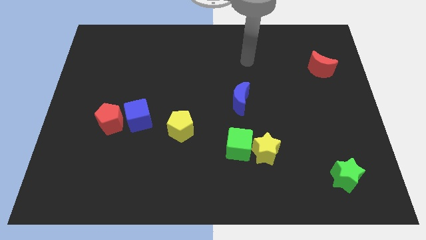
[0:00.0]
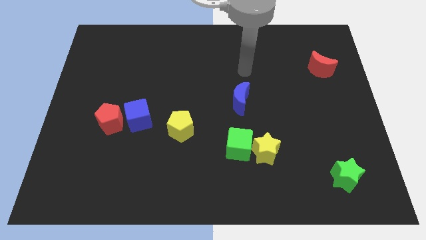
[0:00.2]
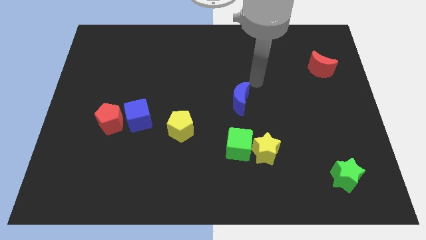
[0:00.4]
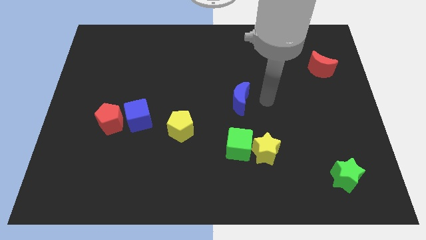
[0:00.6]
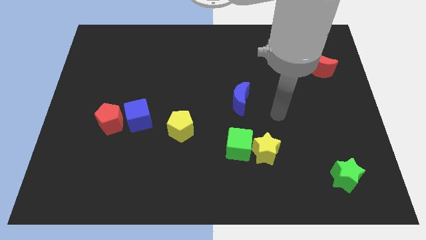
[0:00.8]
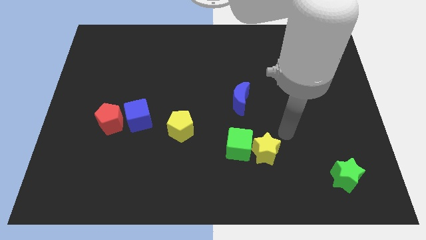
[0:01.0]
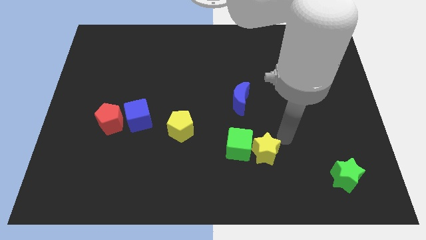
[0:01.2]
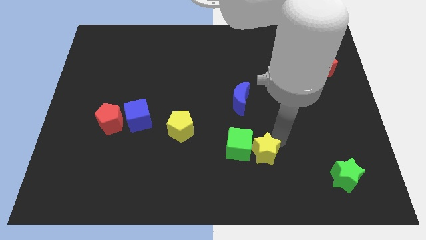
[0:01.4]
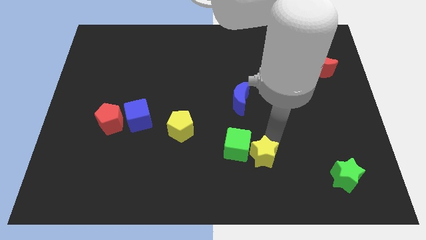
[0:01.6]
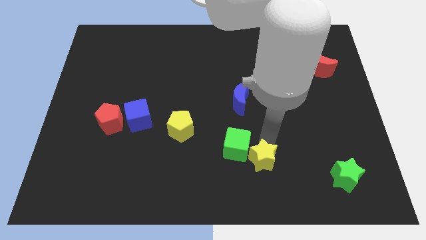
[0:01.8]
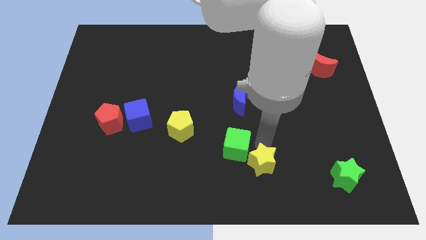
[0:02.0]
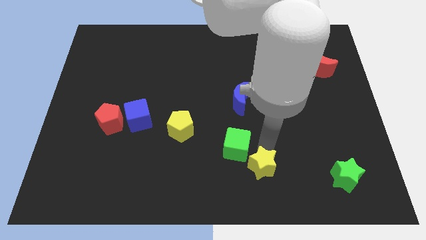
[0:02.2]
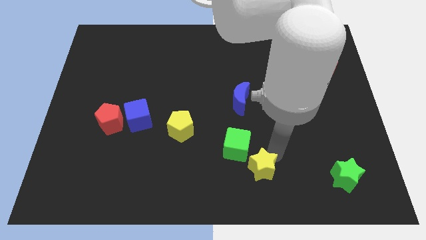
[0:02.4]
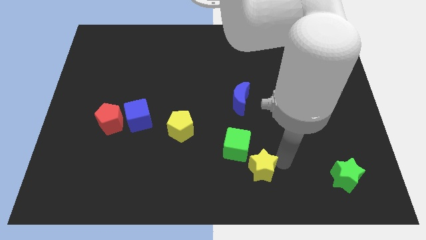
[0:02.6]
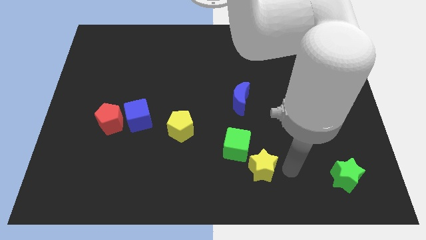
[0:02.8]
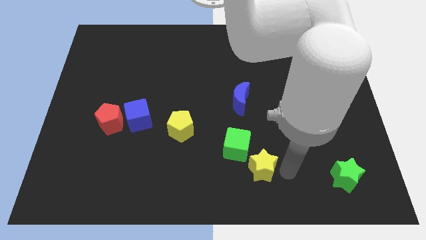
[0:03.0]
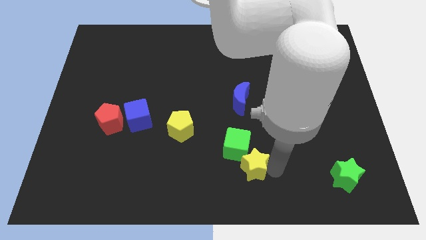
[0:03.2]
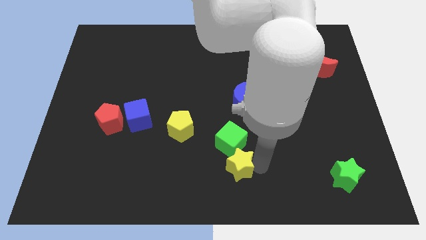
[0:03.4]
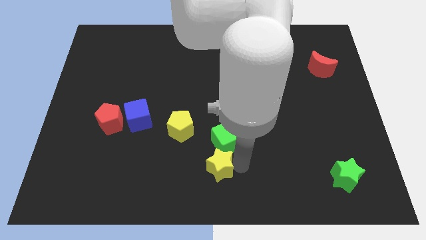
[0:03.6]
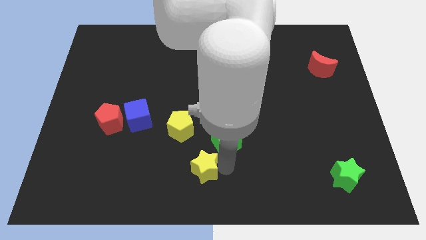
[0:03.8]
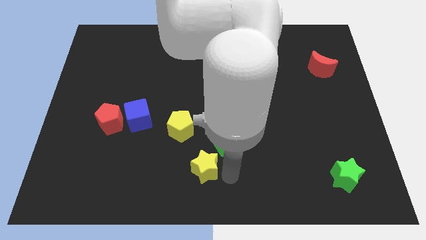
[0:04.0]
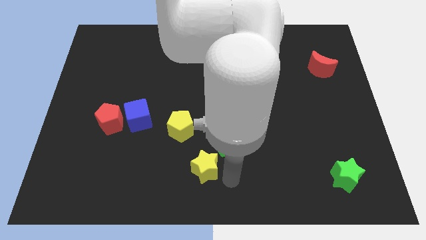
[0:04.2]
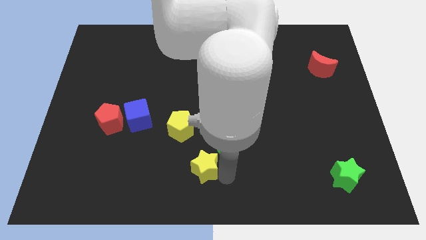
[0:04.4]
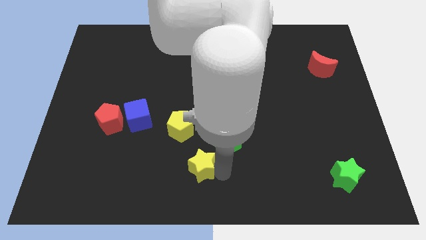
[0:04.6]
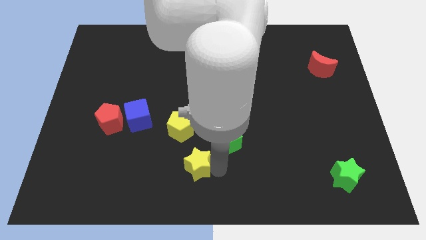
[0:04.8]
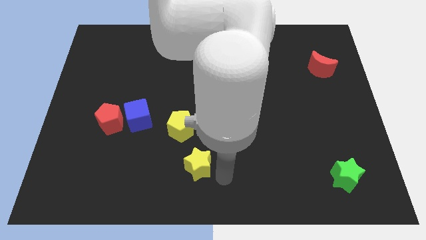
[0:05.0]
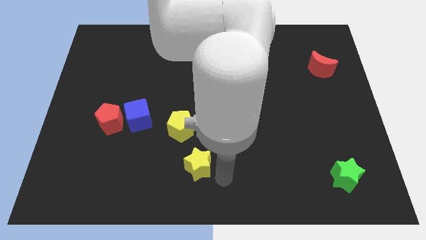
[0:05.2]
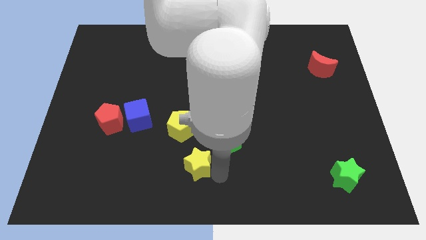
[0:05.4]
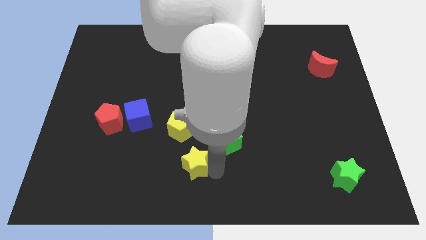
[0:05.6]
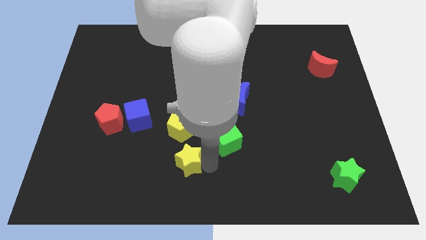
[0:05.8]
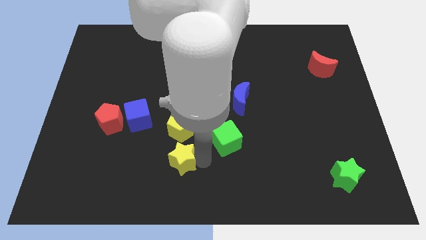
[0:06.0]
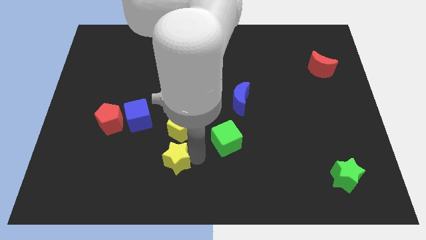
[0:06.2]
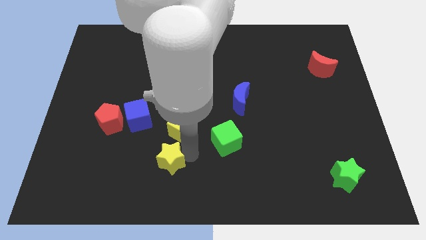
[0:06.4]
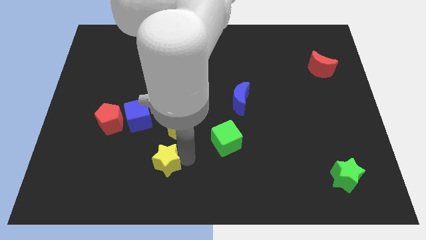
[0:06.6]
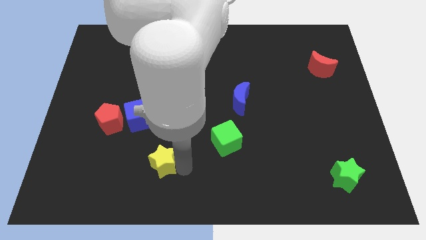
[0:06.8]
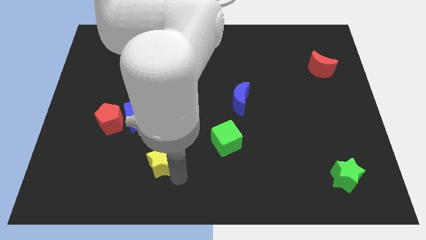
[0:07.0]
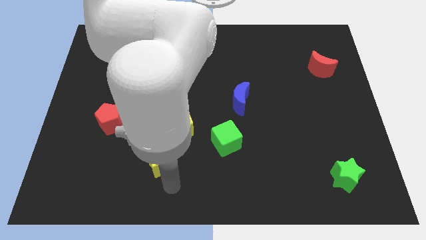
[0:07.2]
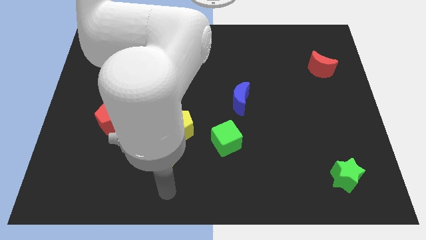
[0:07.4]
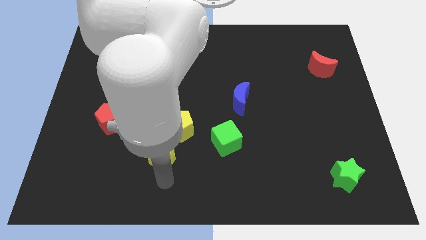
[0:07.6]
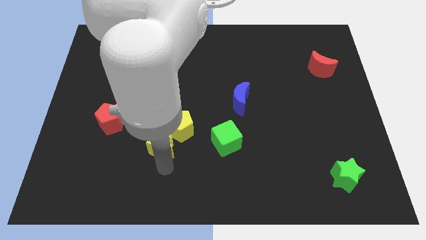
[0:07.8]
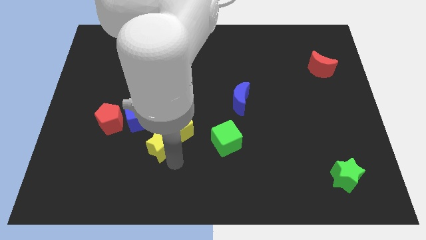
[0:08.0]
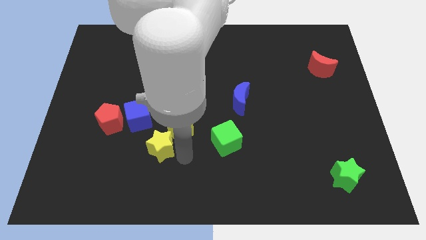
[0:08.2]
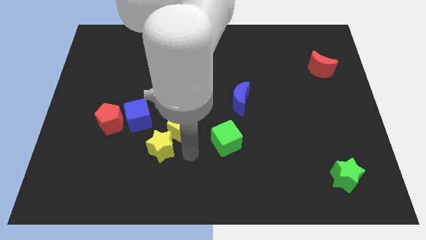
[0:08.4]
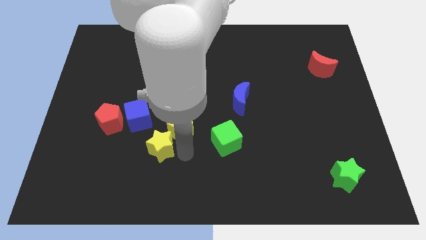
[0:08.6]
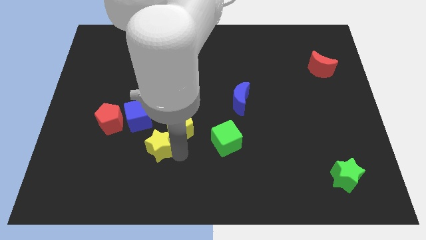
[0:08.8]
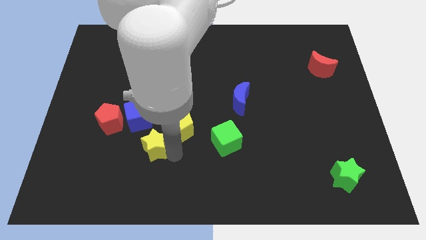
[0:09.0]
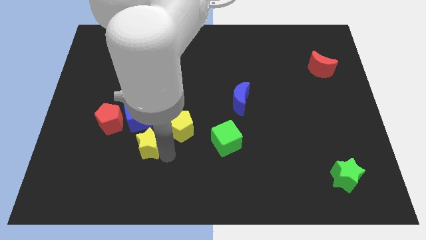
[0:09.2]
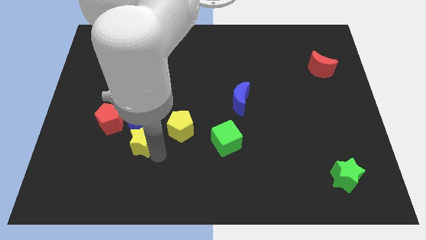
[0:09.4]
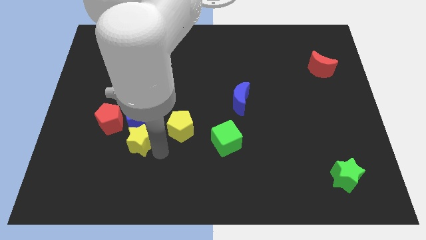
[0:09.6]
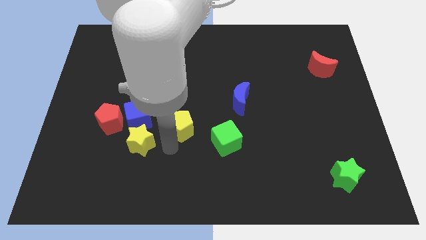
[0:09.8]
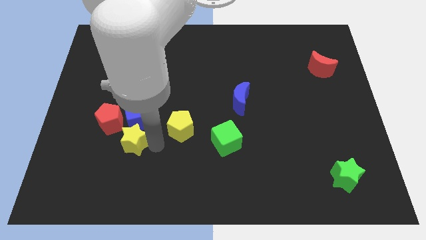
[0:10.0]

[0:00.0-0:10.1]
slide the yellow star to the bottom left side of the blue cube

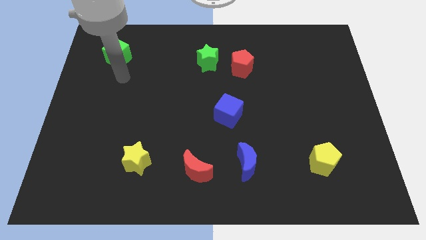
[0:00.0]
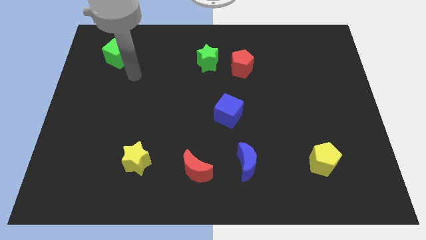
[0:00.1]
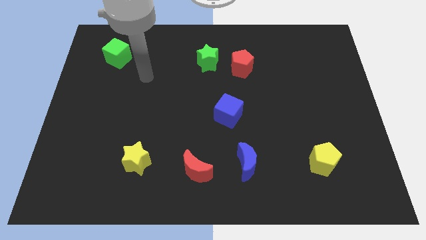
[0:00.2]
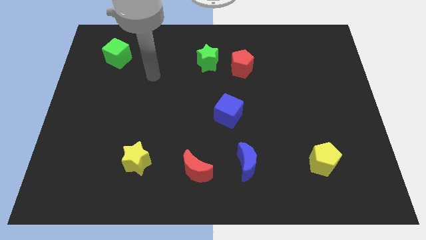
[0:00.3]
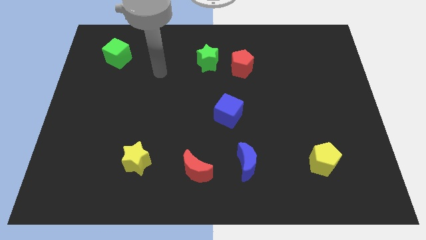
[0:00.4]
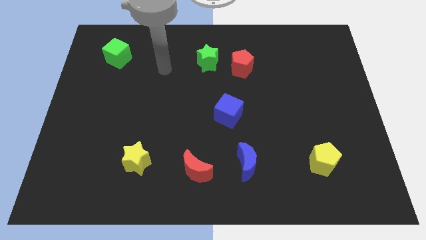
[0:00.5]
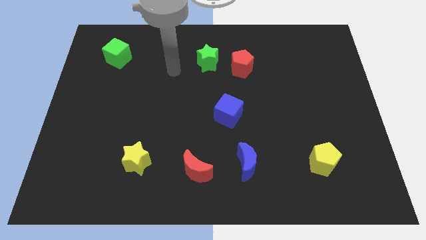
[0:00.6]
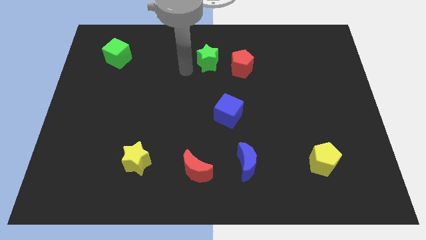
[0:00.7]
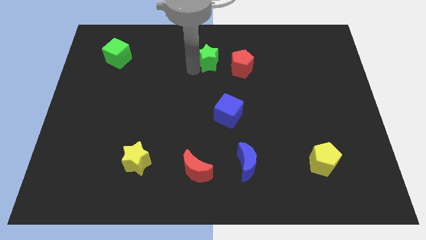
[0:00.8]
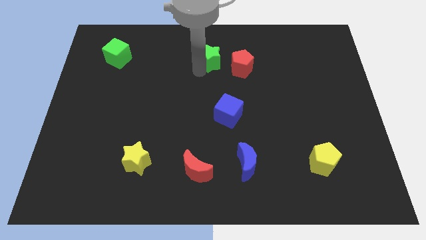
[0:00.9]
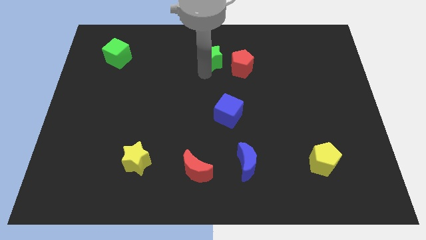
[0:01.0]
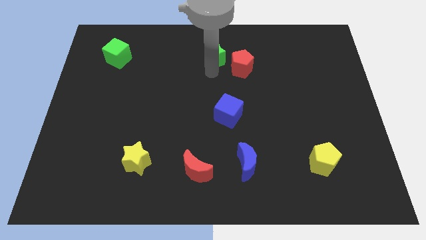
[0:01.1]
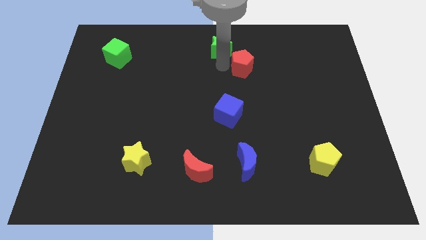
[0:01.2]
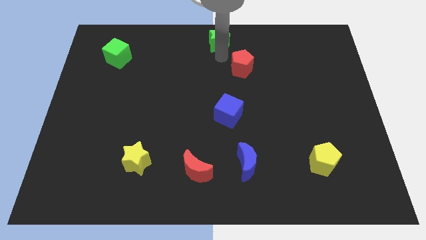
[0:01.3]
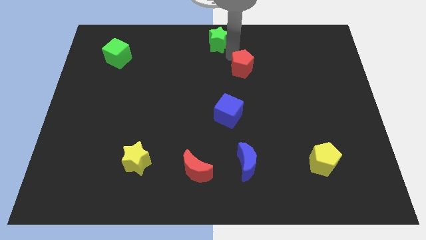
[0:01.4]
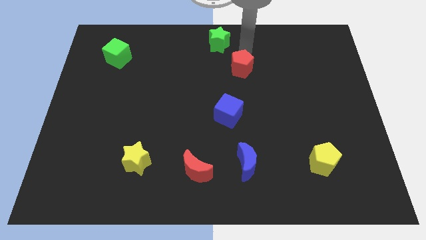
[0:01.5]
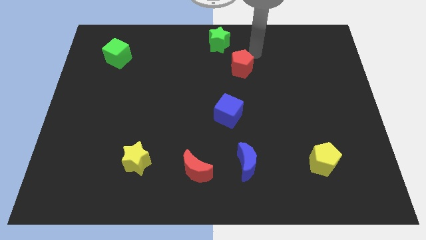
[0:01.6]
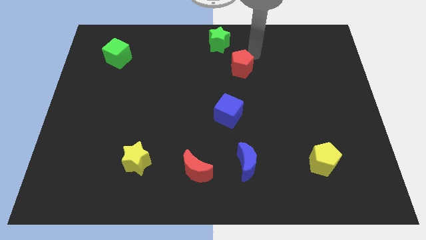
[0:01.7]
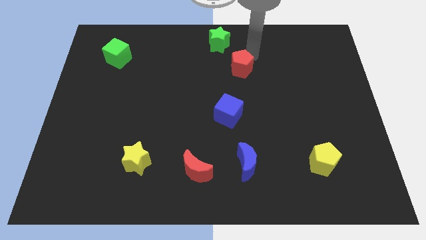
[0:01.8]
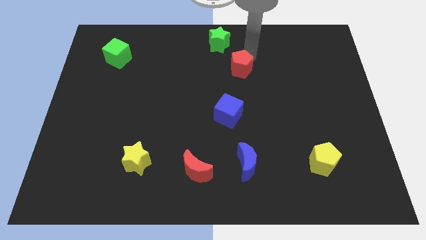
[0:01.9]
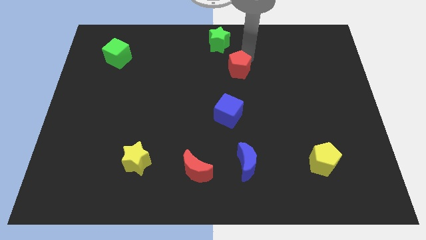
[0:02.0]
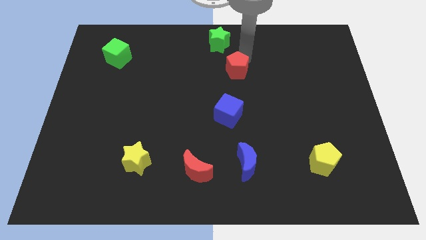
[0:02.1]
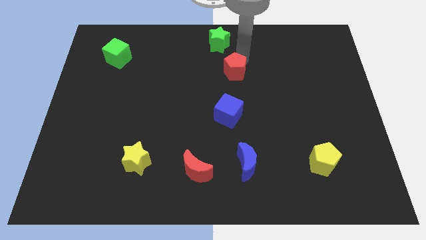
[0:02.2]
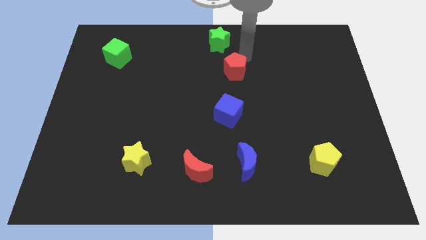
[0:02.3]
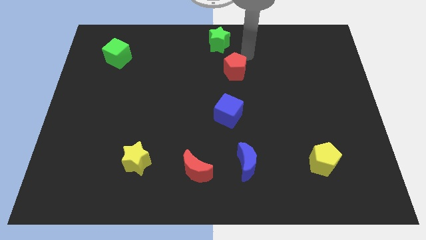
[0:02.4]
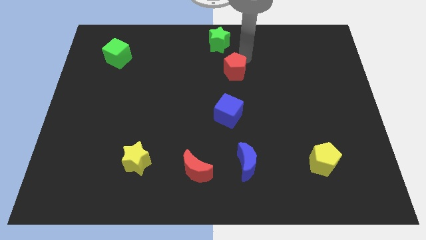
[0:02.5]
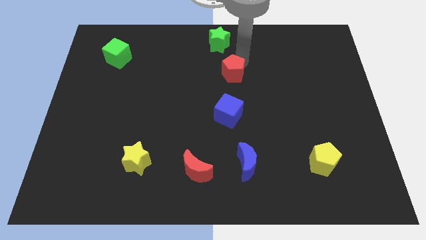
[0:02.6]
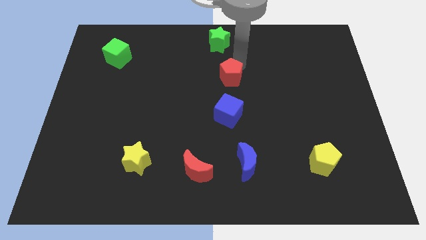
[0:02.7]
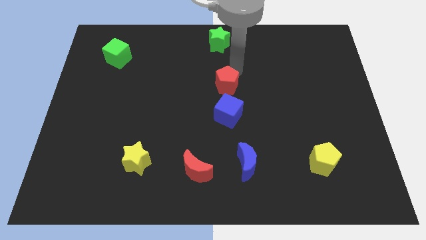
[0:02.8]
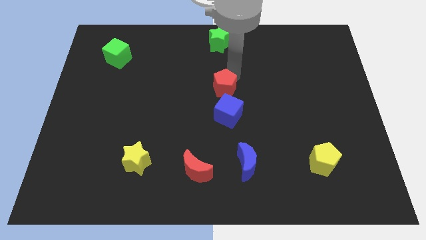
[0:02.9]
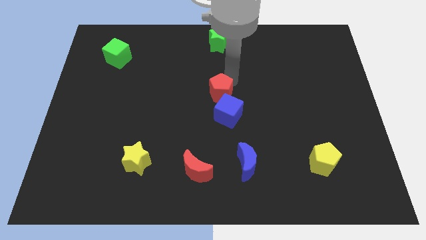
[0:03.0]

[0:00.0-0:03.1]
slide the red pentagon diagonally up and to the left of the blue cube
